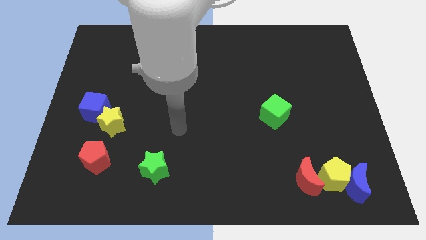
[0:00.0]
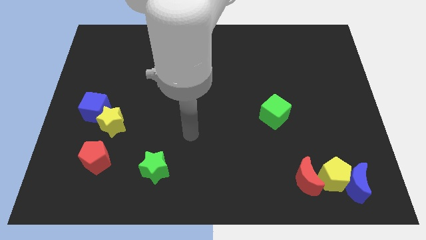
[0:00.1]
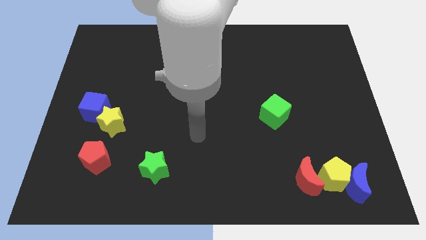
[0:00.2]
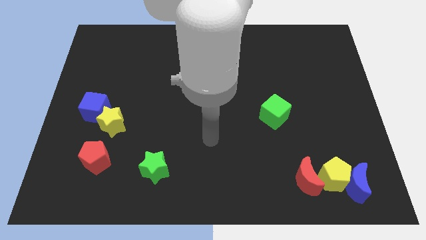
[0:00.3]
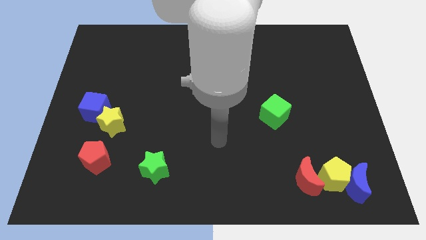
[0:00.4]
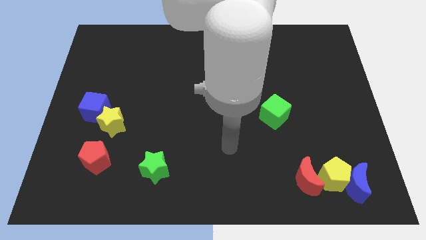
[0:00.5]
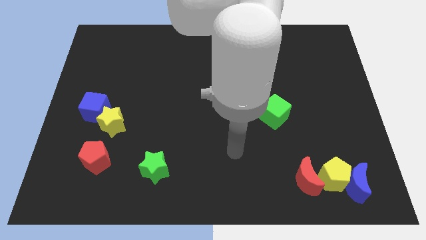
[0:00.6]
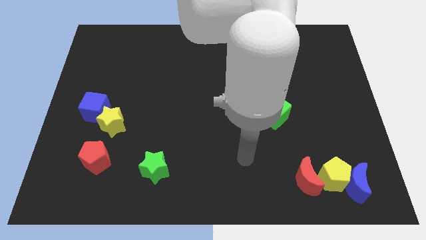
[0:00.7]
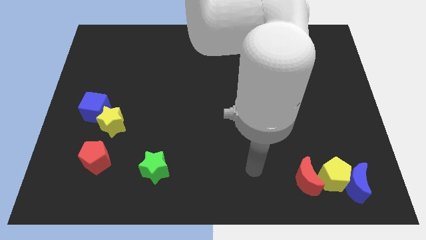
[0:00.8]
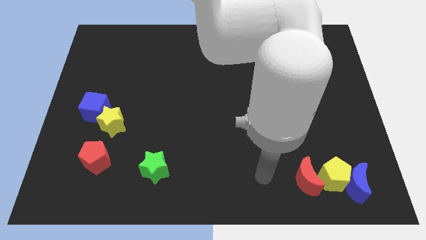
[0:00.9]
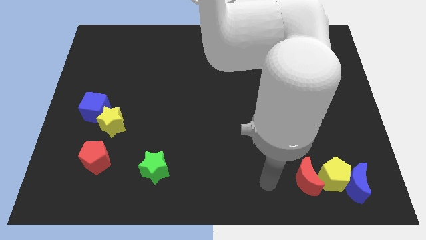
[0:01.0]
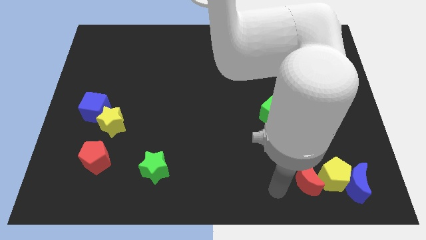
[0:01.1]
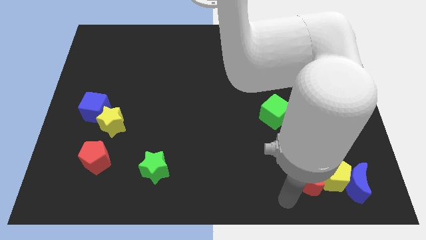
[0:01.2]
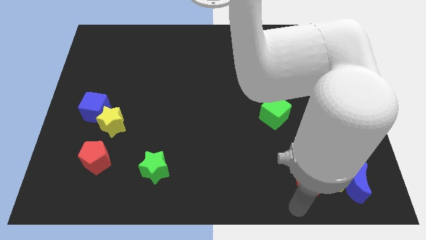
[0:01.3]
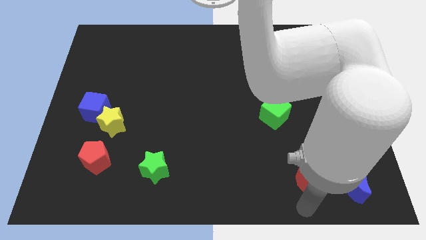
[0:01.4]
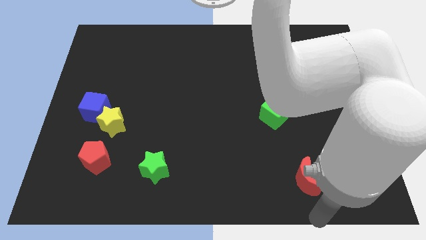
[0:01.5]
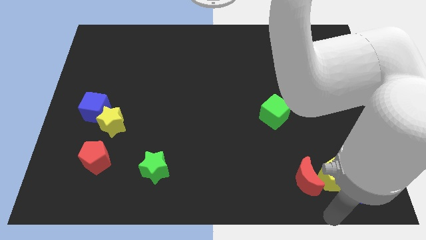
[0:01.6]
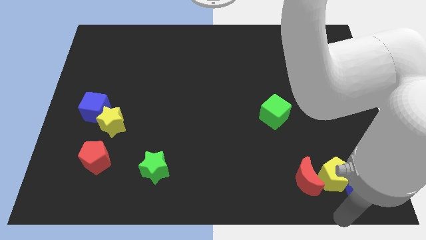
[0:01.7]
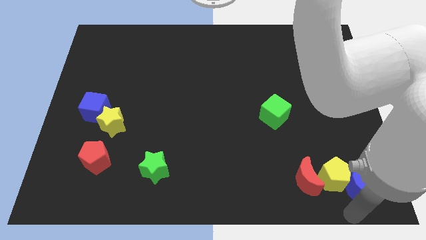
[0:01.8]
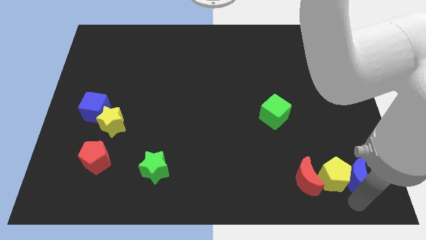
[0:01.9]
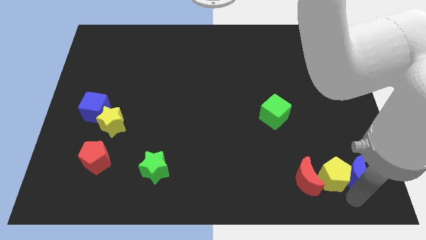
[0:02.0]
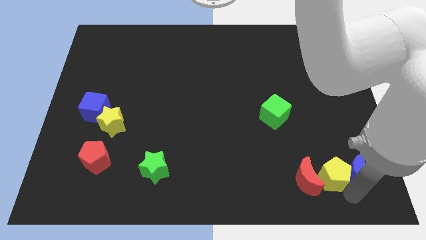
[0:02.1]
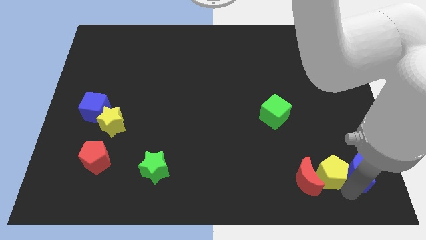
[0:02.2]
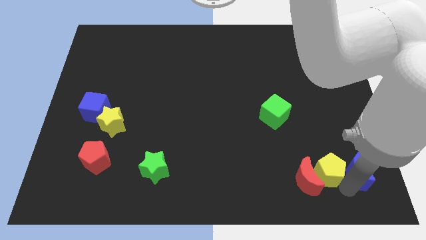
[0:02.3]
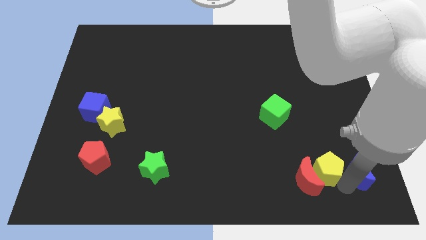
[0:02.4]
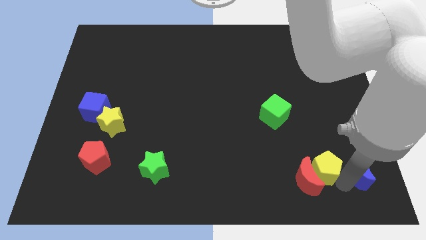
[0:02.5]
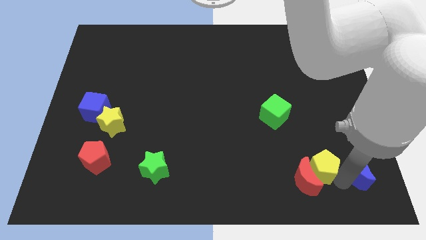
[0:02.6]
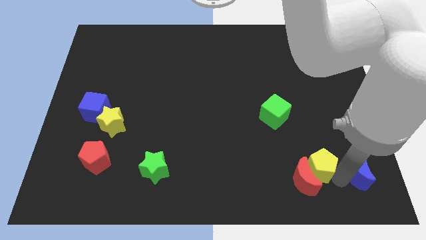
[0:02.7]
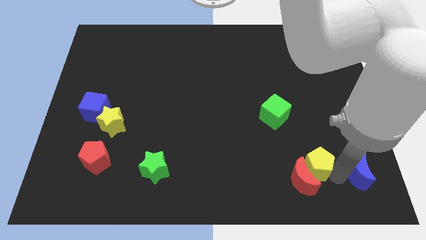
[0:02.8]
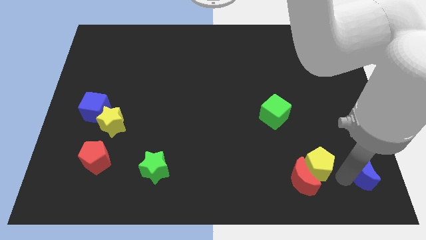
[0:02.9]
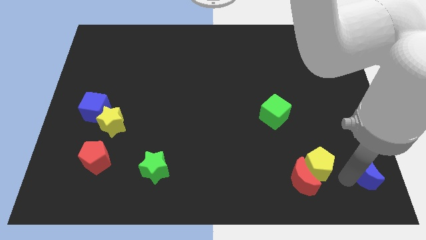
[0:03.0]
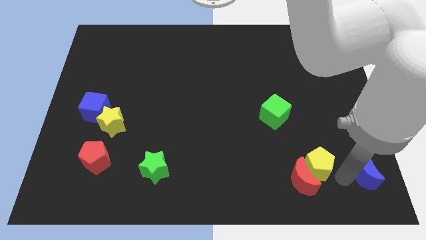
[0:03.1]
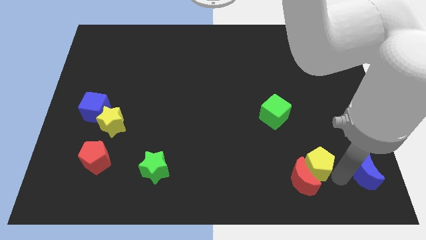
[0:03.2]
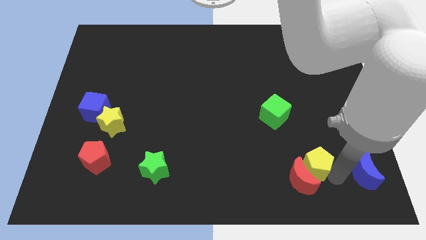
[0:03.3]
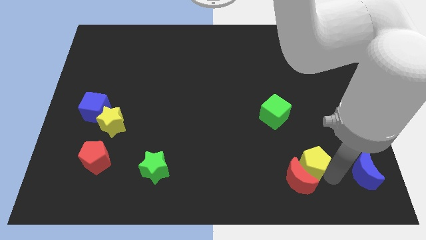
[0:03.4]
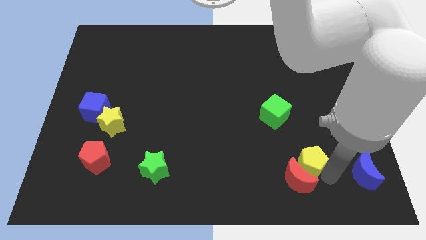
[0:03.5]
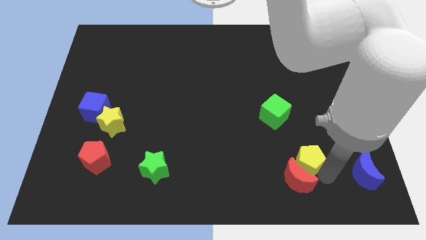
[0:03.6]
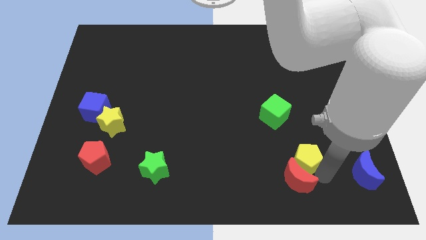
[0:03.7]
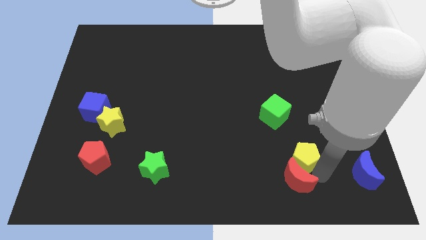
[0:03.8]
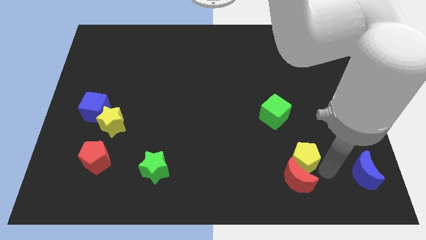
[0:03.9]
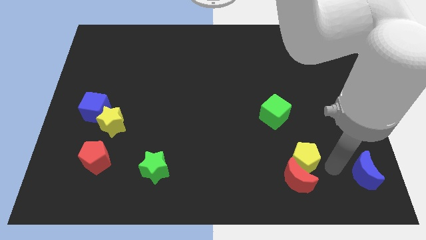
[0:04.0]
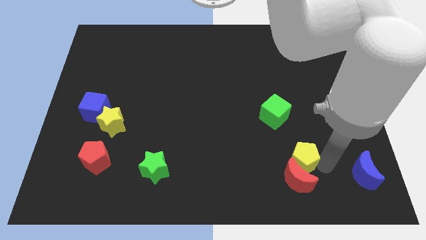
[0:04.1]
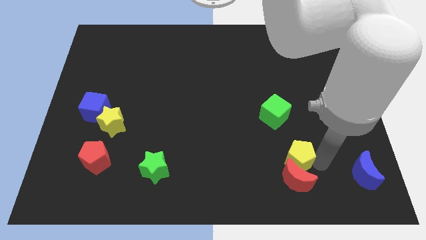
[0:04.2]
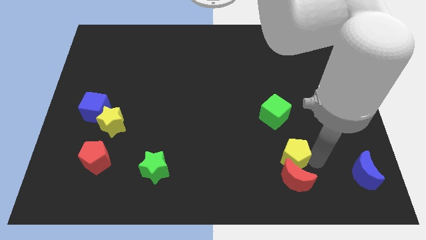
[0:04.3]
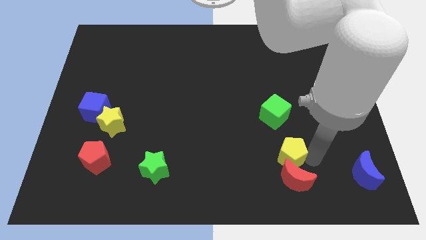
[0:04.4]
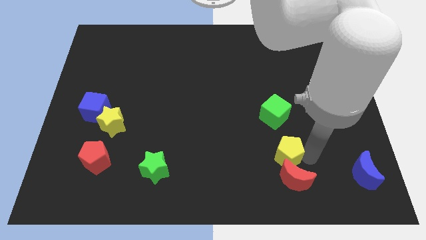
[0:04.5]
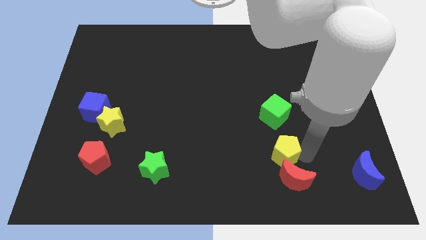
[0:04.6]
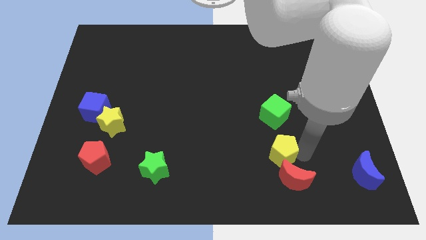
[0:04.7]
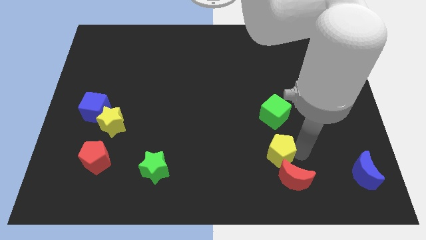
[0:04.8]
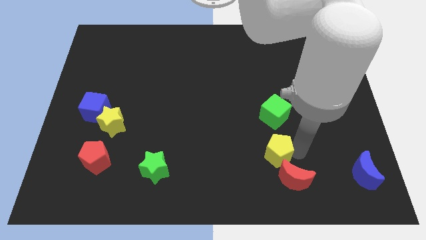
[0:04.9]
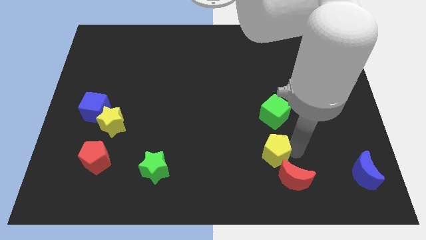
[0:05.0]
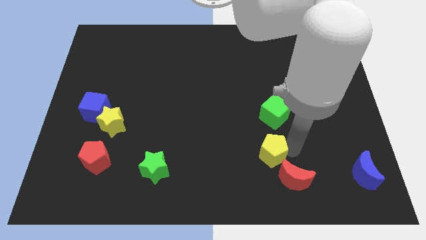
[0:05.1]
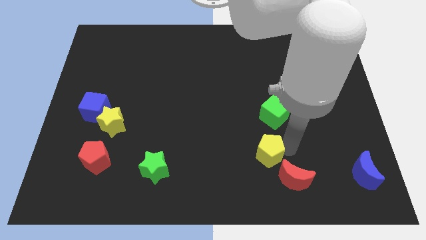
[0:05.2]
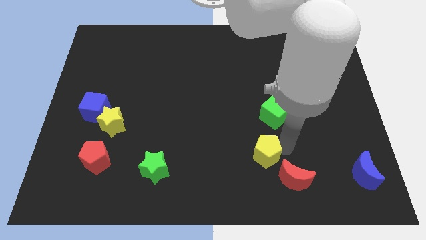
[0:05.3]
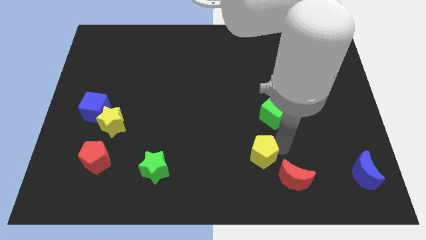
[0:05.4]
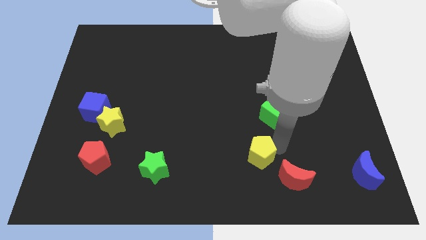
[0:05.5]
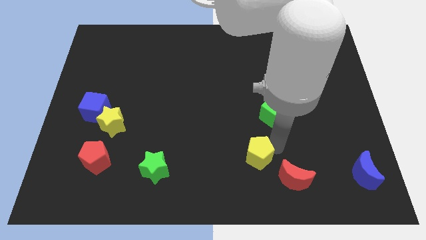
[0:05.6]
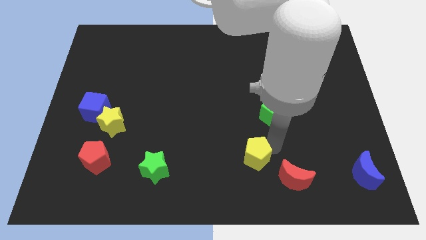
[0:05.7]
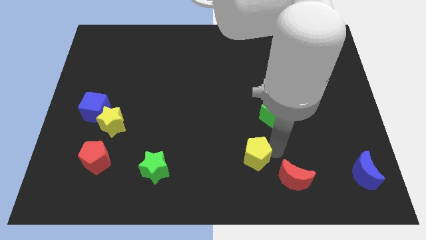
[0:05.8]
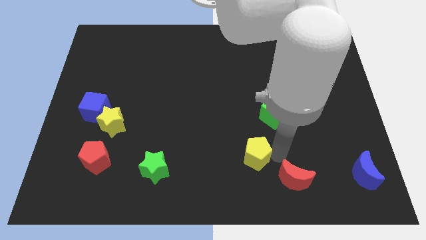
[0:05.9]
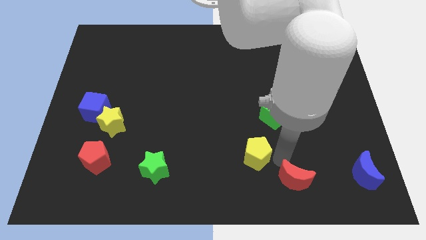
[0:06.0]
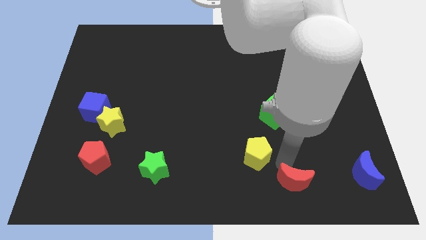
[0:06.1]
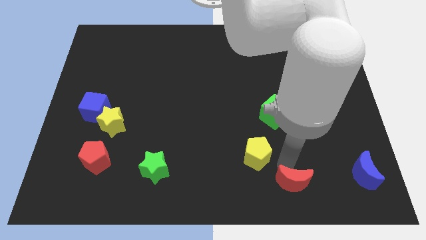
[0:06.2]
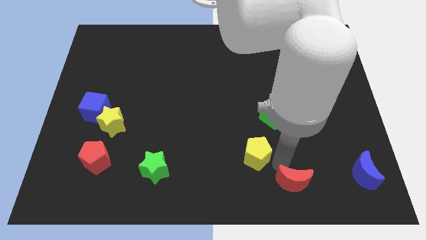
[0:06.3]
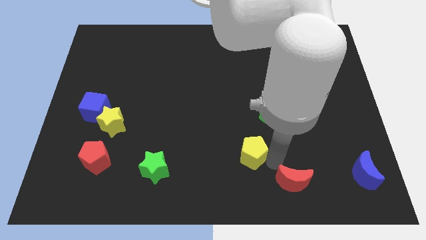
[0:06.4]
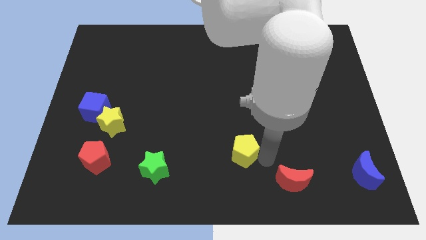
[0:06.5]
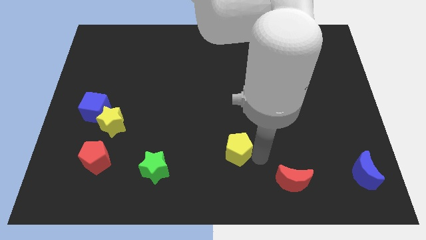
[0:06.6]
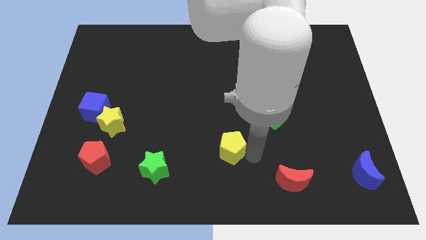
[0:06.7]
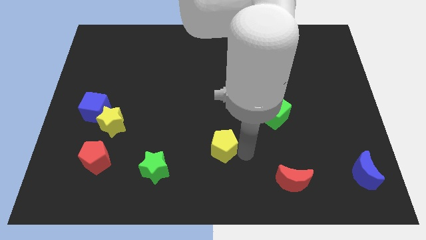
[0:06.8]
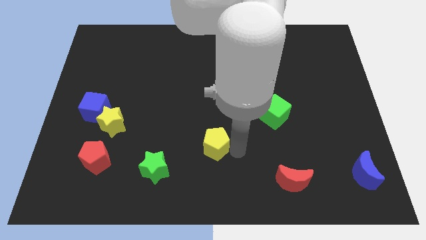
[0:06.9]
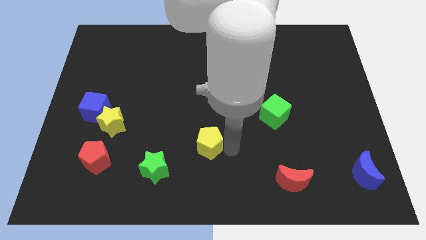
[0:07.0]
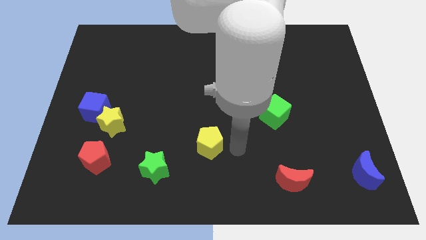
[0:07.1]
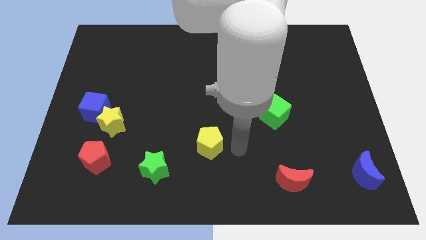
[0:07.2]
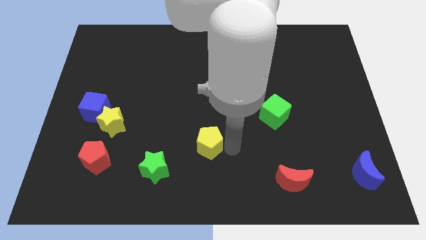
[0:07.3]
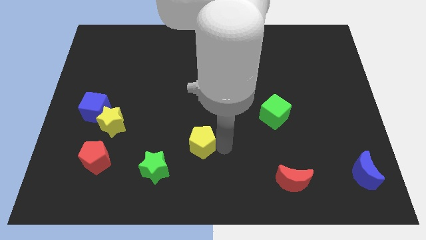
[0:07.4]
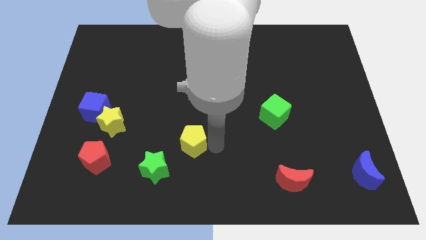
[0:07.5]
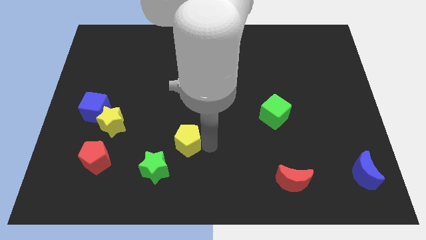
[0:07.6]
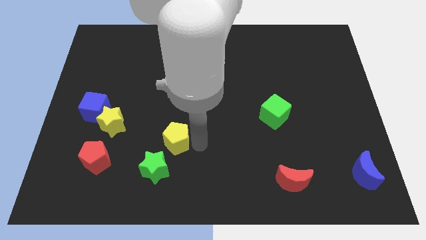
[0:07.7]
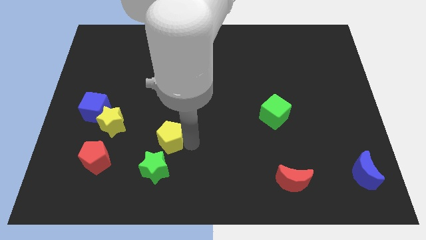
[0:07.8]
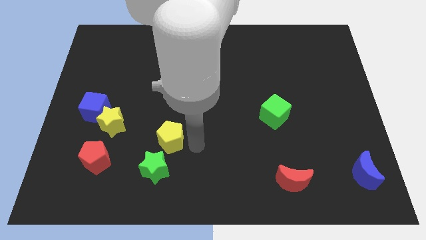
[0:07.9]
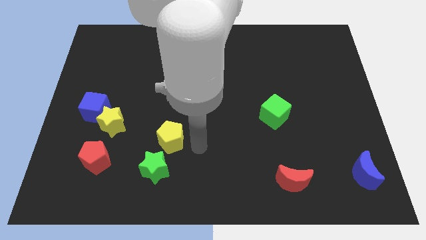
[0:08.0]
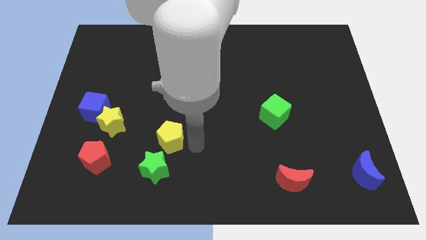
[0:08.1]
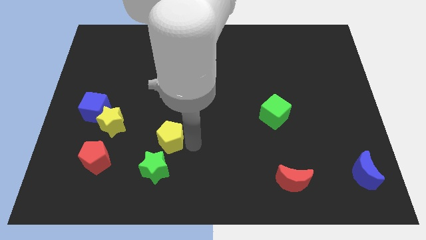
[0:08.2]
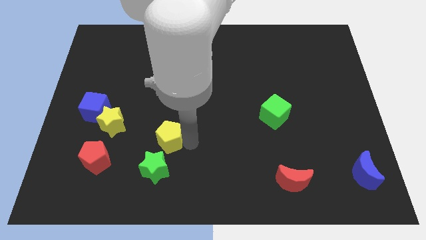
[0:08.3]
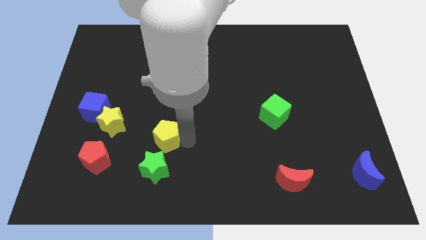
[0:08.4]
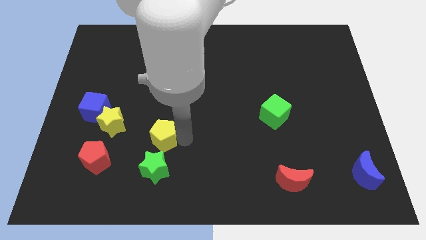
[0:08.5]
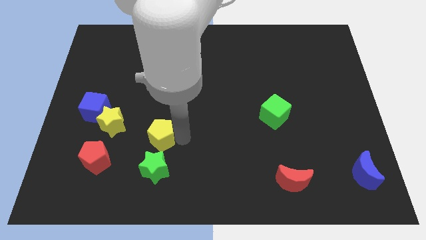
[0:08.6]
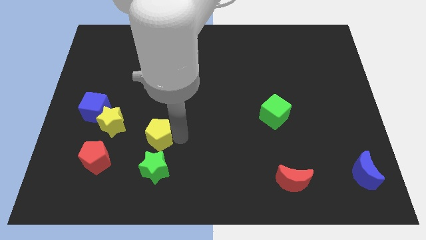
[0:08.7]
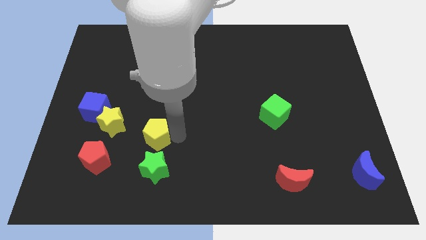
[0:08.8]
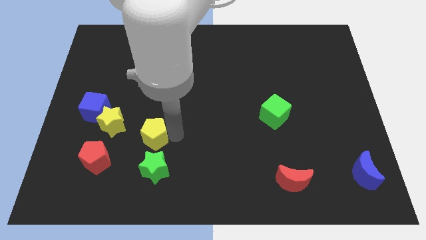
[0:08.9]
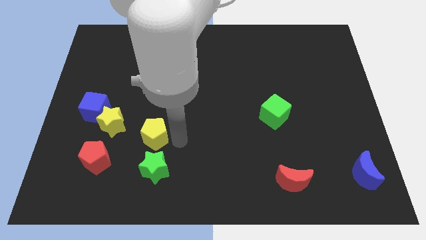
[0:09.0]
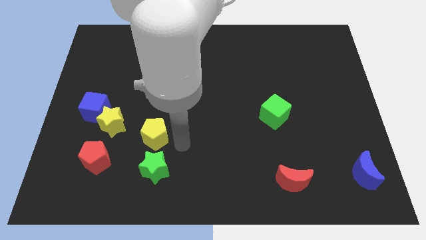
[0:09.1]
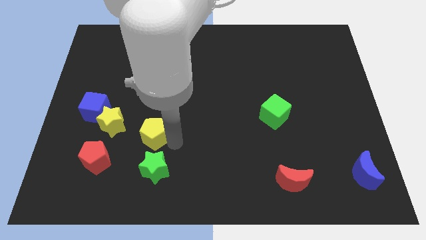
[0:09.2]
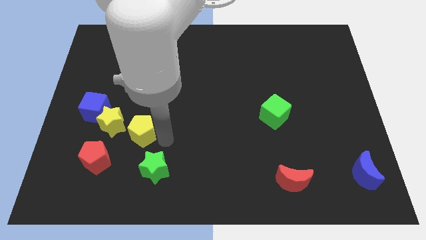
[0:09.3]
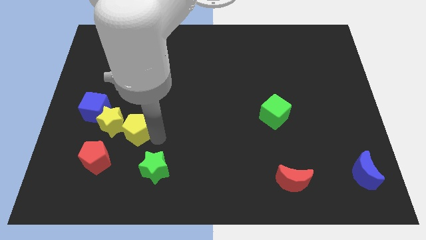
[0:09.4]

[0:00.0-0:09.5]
push the yellow pentagon next to the yellow star
